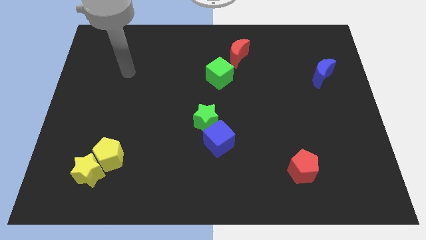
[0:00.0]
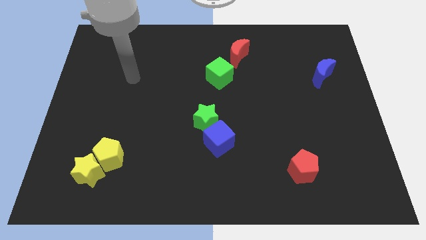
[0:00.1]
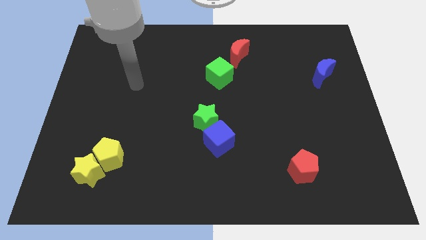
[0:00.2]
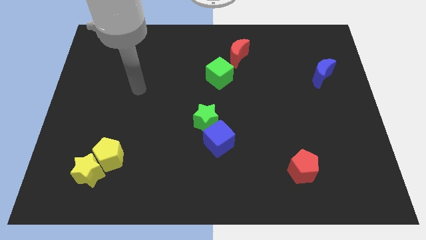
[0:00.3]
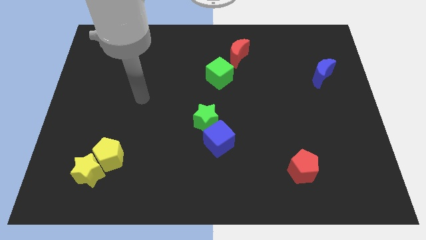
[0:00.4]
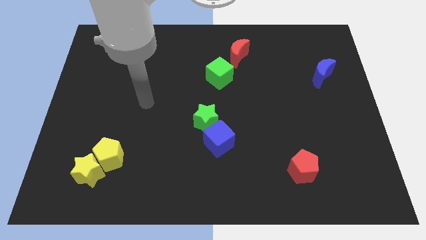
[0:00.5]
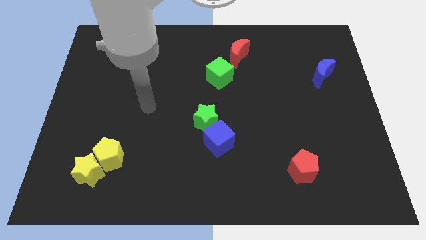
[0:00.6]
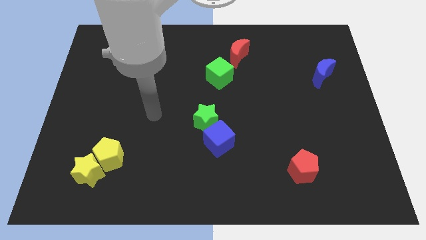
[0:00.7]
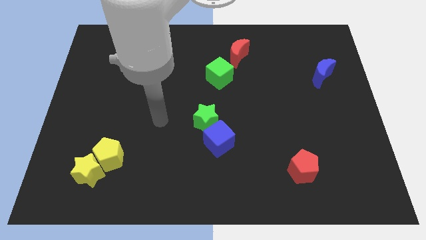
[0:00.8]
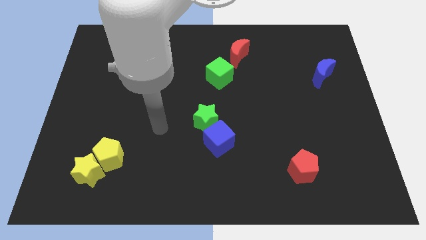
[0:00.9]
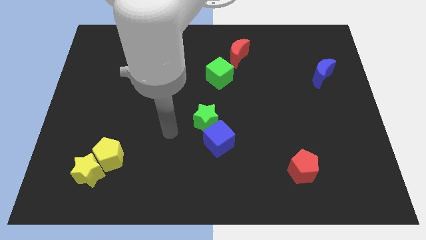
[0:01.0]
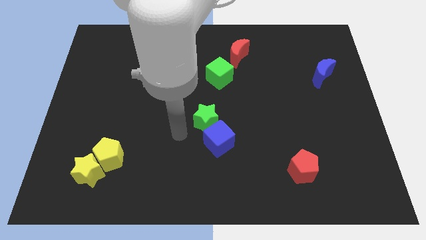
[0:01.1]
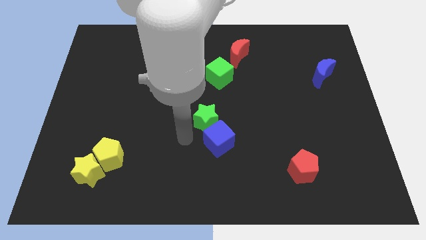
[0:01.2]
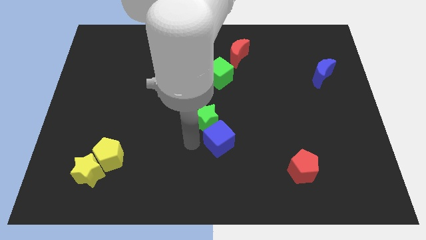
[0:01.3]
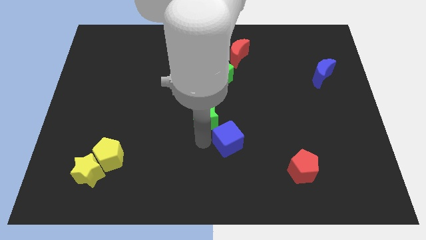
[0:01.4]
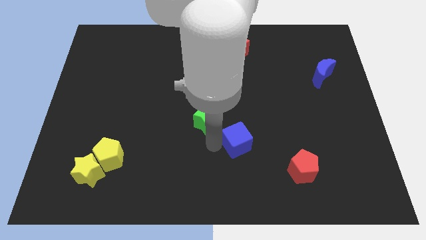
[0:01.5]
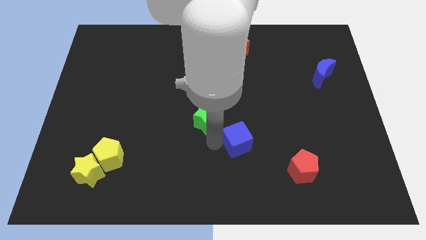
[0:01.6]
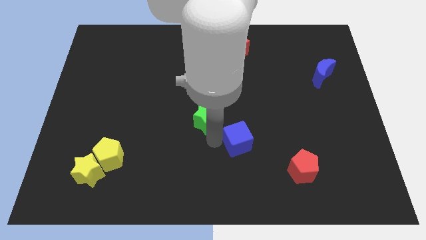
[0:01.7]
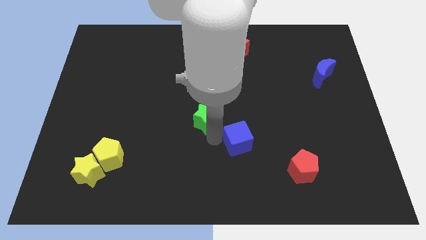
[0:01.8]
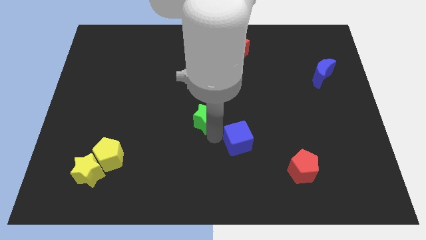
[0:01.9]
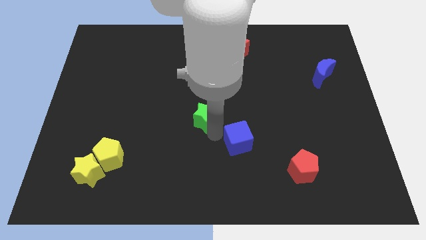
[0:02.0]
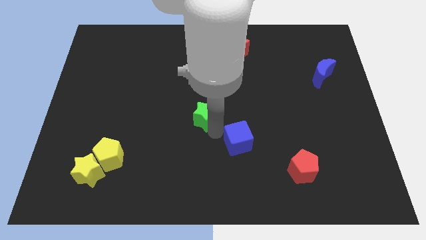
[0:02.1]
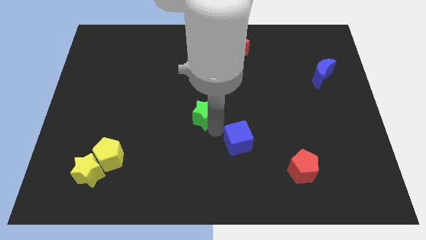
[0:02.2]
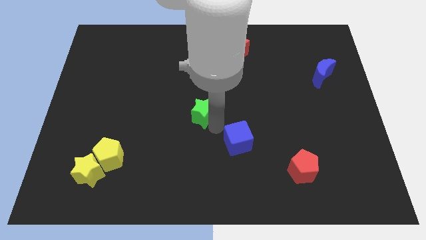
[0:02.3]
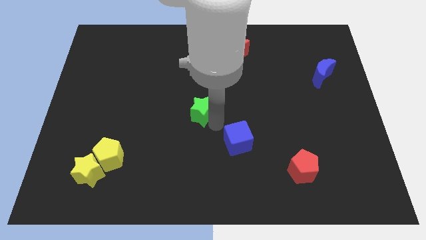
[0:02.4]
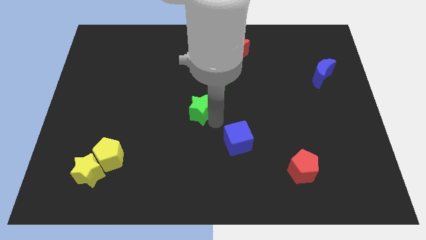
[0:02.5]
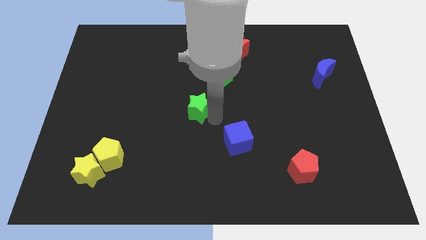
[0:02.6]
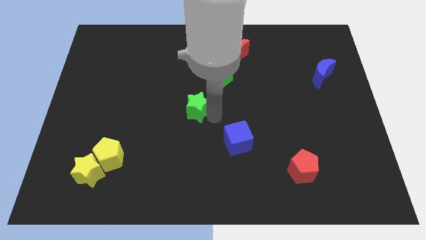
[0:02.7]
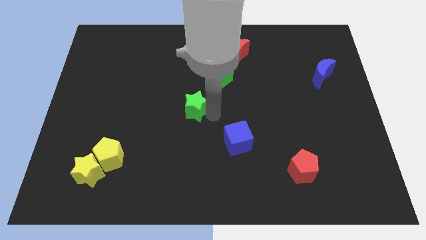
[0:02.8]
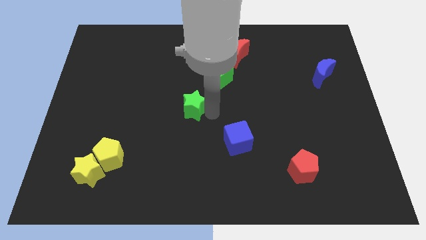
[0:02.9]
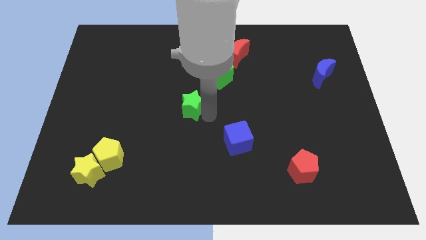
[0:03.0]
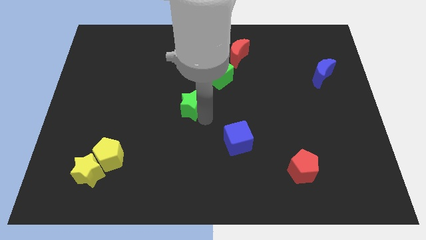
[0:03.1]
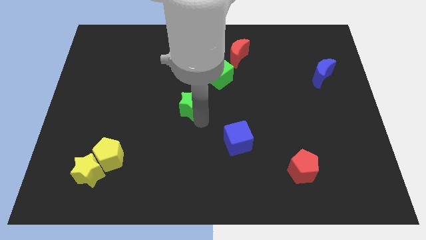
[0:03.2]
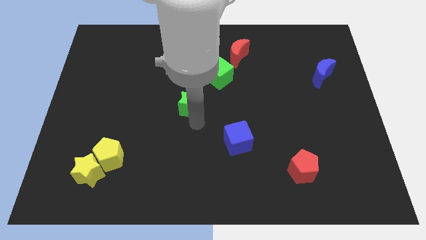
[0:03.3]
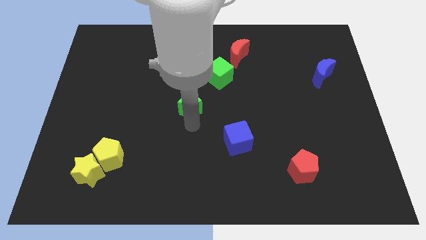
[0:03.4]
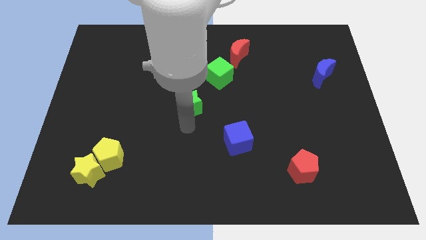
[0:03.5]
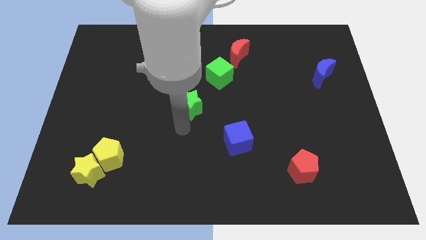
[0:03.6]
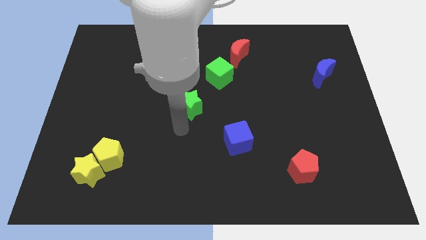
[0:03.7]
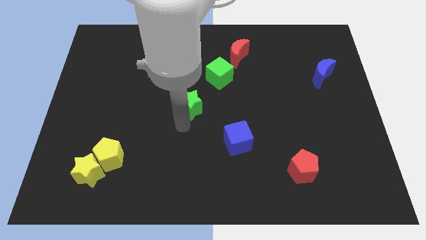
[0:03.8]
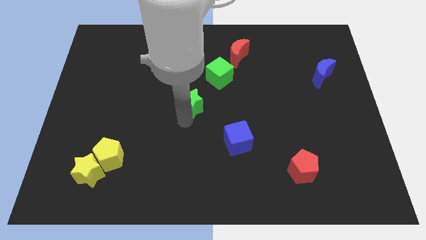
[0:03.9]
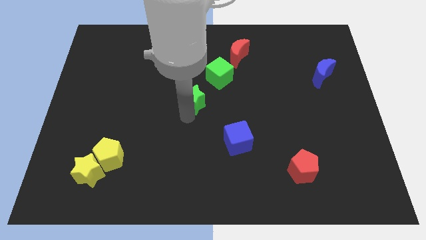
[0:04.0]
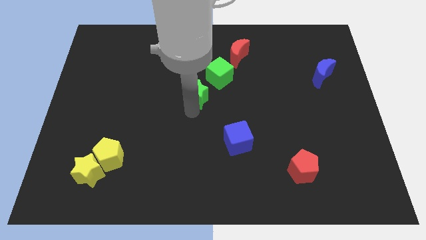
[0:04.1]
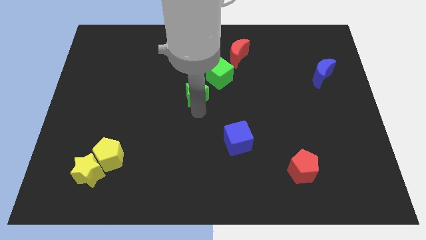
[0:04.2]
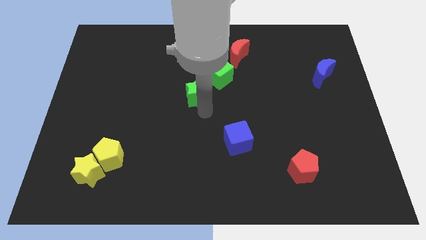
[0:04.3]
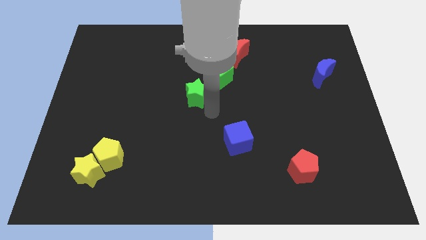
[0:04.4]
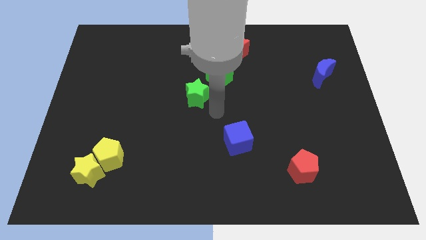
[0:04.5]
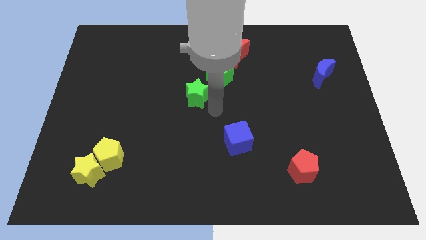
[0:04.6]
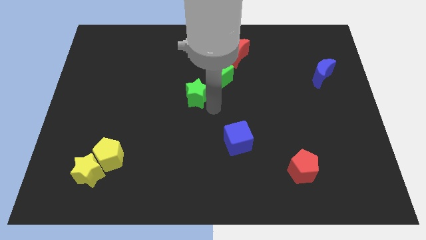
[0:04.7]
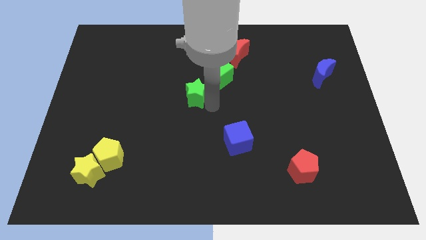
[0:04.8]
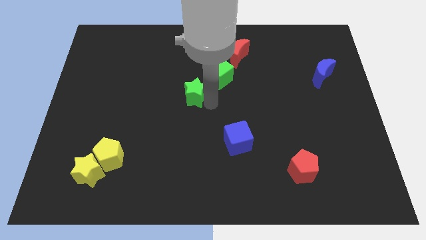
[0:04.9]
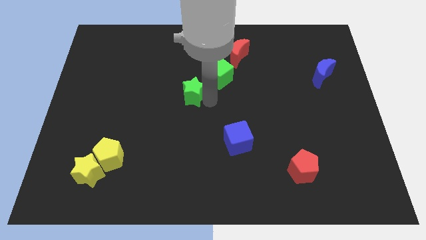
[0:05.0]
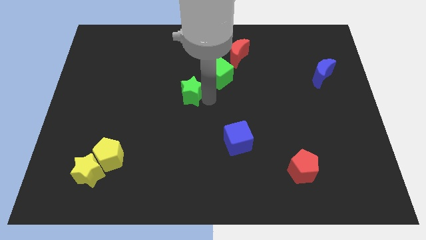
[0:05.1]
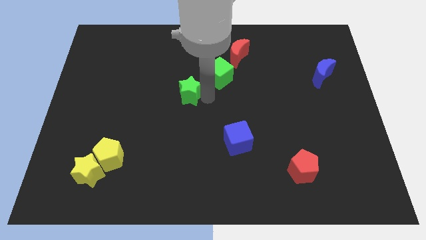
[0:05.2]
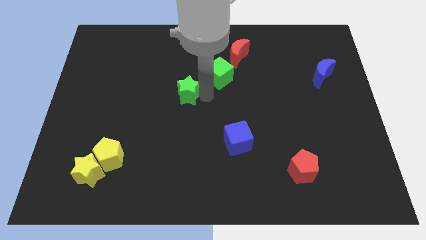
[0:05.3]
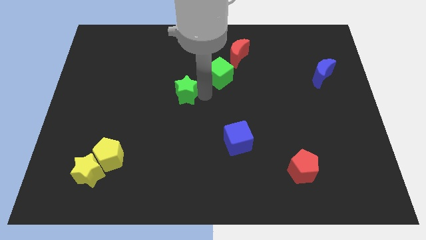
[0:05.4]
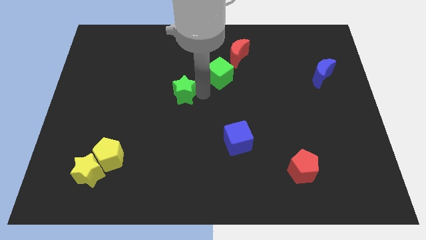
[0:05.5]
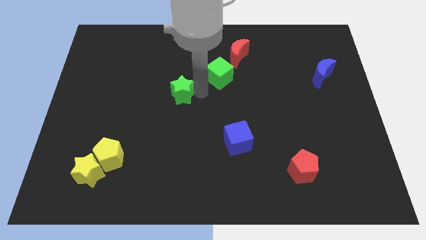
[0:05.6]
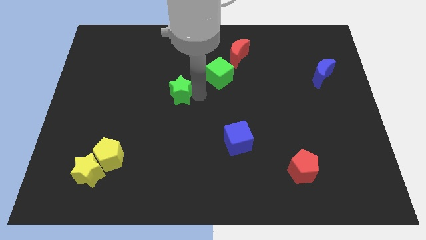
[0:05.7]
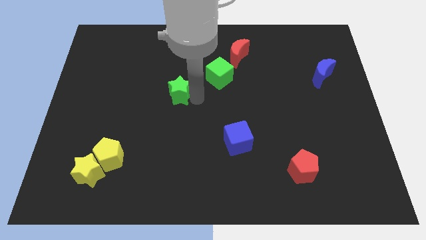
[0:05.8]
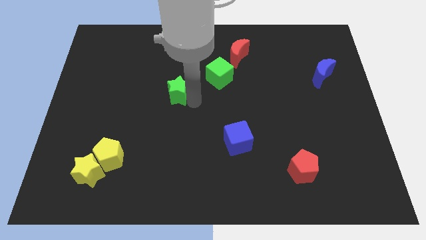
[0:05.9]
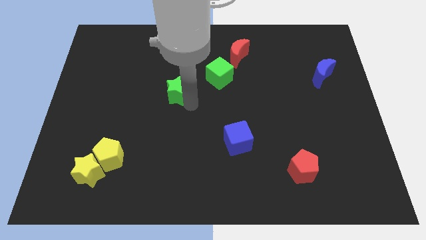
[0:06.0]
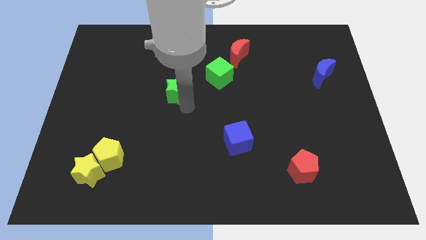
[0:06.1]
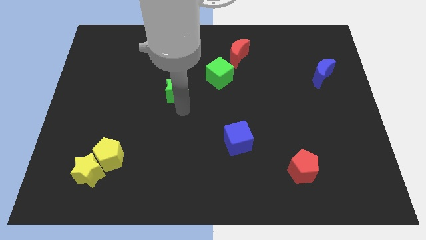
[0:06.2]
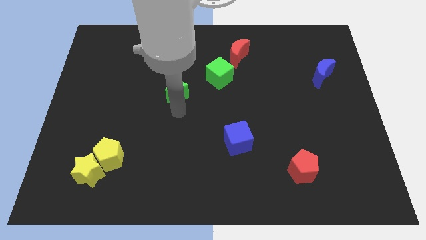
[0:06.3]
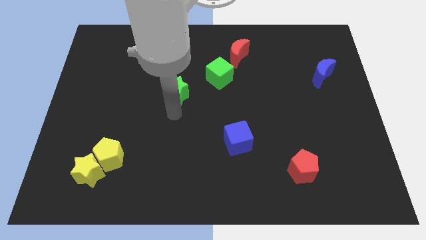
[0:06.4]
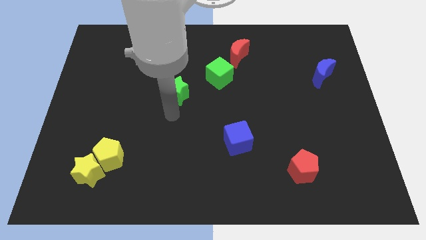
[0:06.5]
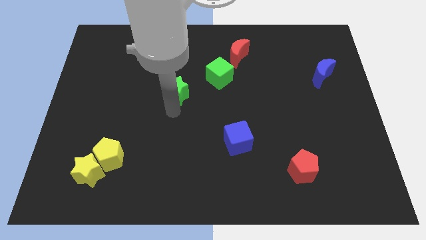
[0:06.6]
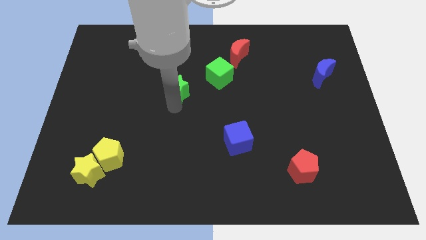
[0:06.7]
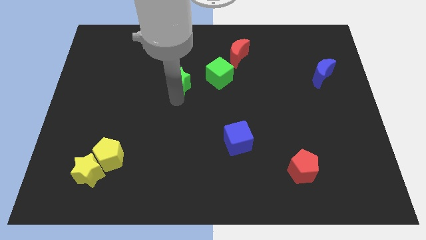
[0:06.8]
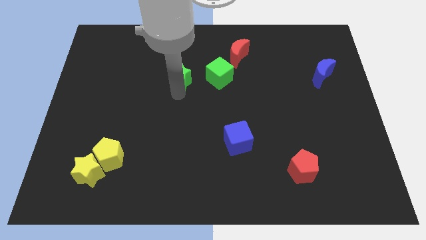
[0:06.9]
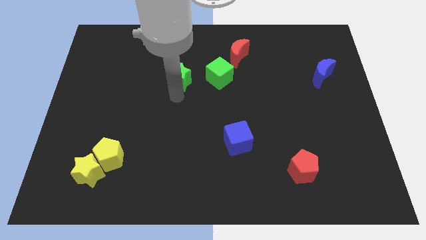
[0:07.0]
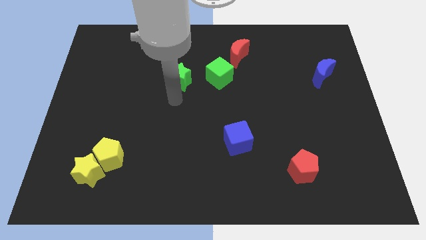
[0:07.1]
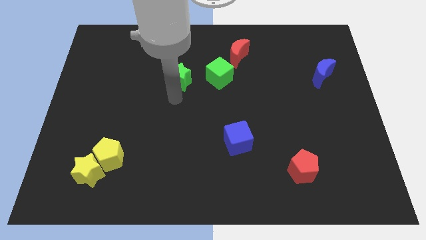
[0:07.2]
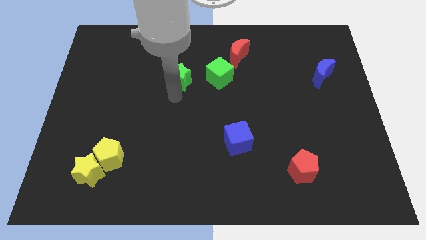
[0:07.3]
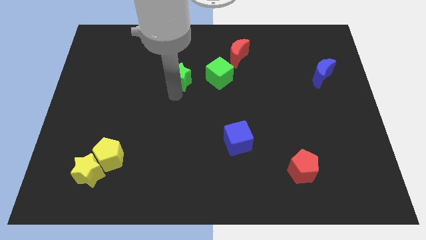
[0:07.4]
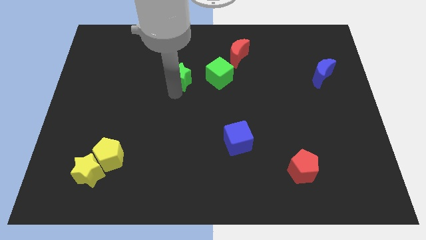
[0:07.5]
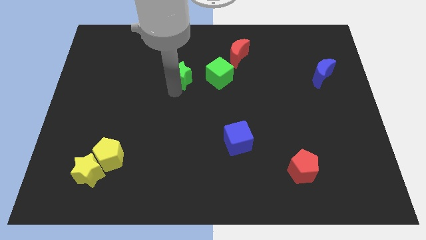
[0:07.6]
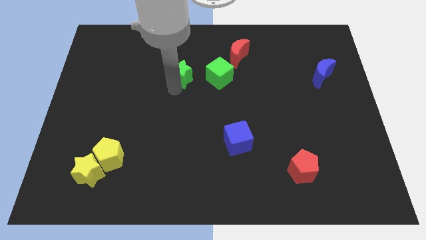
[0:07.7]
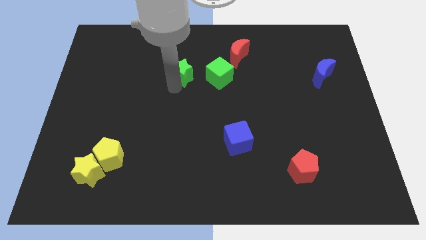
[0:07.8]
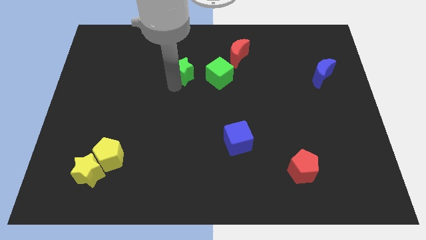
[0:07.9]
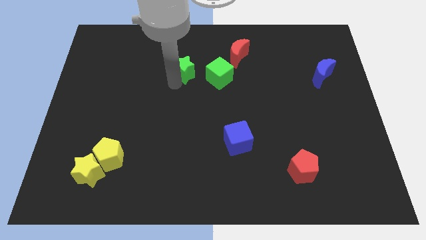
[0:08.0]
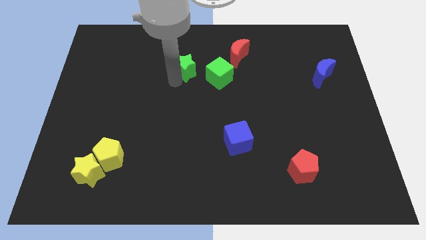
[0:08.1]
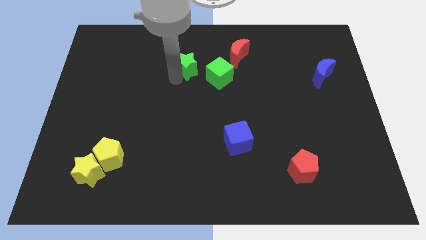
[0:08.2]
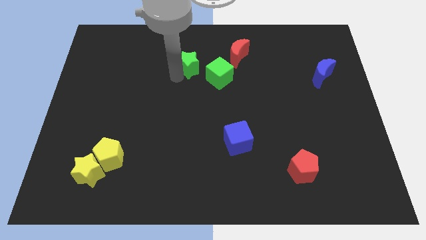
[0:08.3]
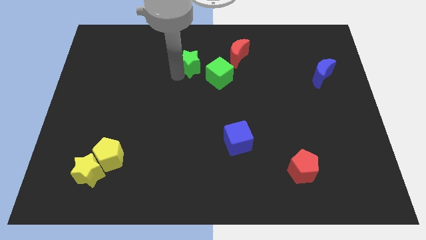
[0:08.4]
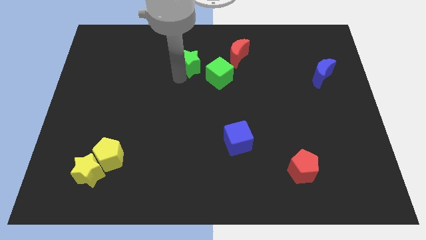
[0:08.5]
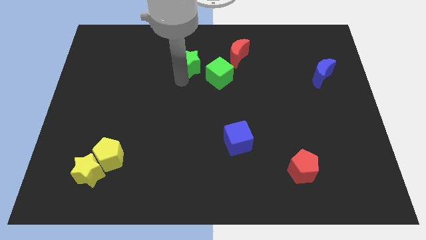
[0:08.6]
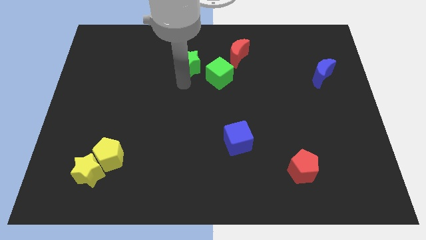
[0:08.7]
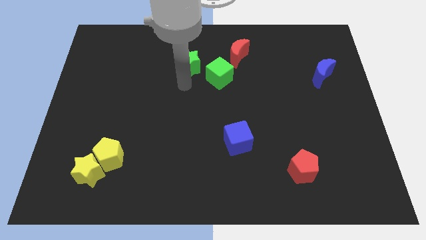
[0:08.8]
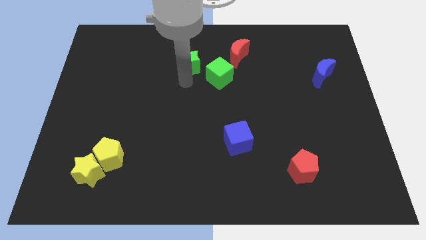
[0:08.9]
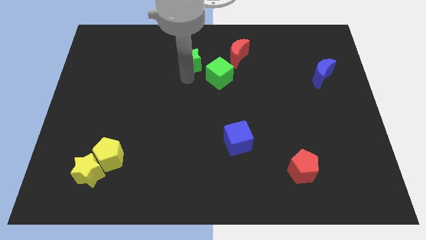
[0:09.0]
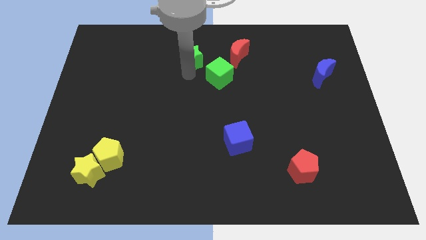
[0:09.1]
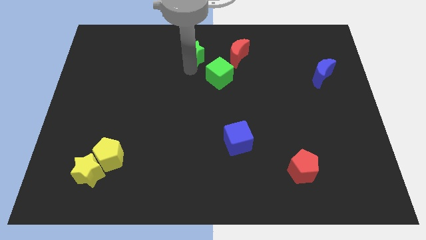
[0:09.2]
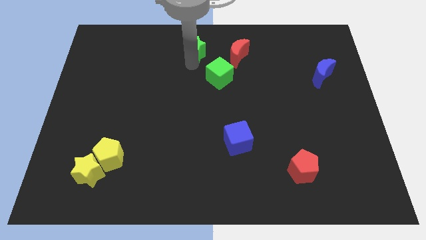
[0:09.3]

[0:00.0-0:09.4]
put the green star to the top
